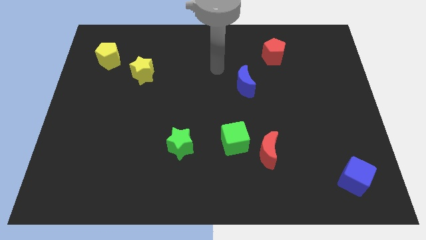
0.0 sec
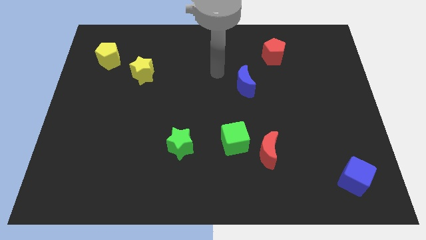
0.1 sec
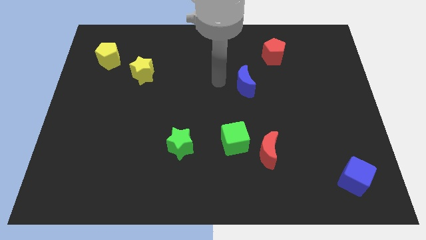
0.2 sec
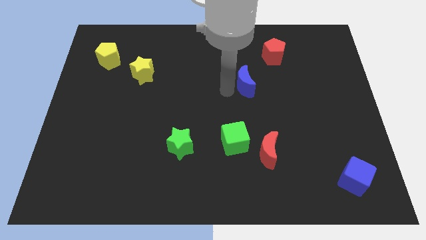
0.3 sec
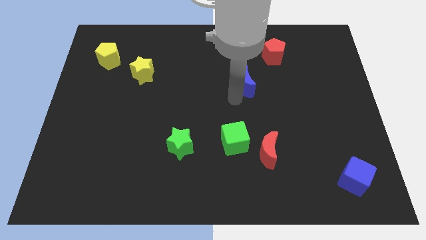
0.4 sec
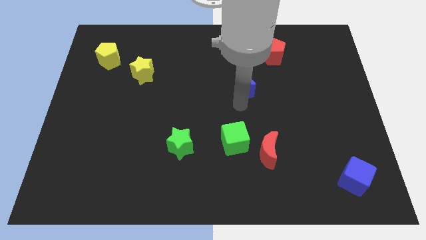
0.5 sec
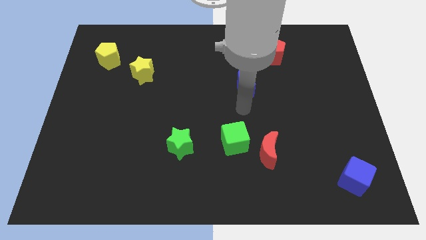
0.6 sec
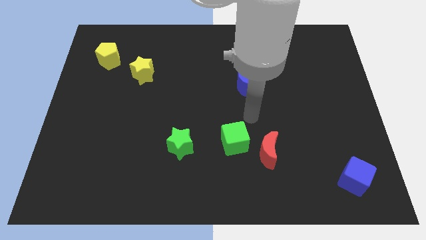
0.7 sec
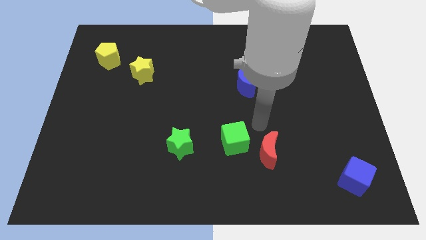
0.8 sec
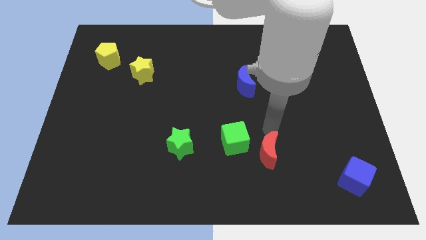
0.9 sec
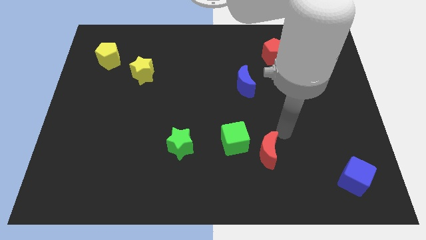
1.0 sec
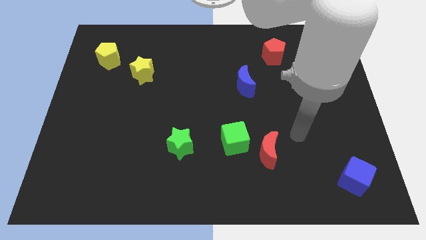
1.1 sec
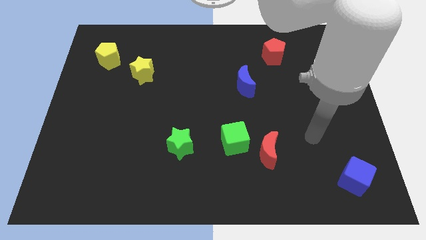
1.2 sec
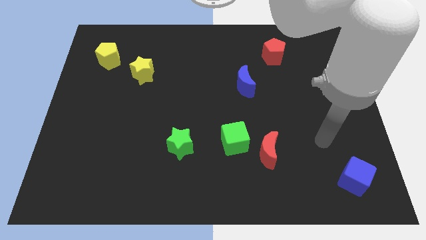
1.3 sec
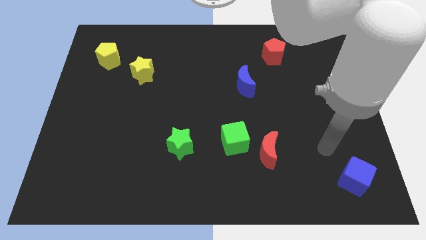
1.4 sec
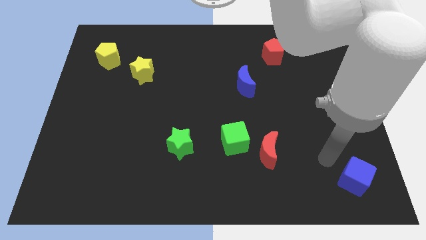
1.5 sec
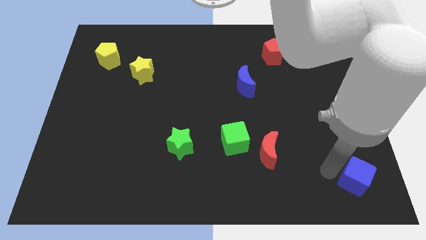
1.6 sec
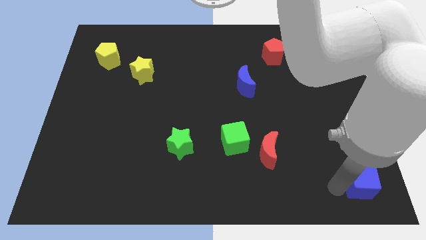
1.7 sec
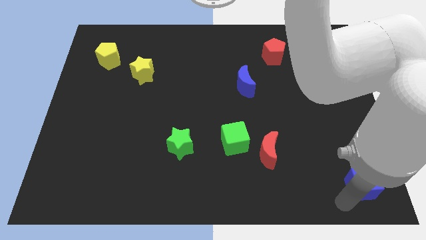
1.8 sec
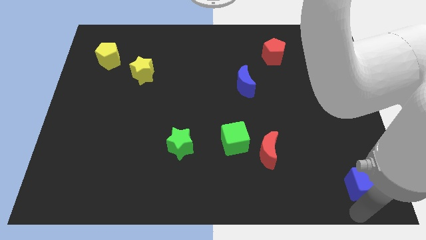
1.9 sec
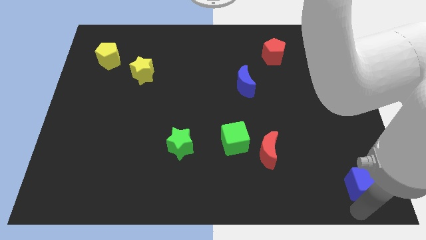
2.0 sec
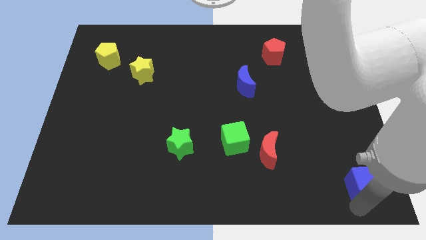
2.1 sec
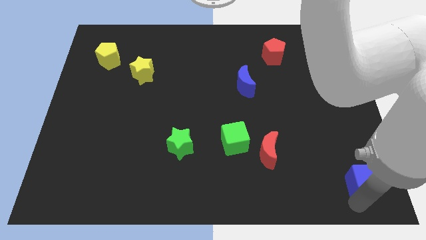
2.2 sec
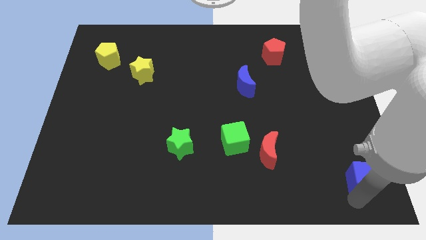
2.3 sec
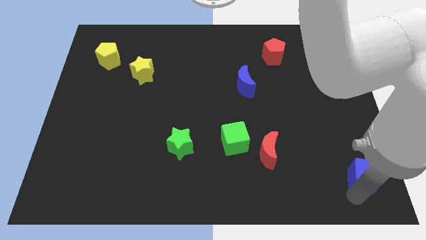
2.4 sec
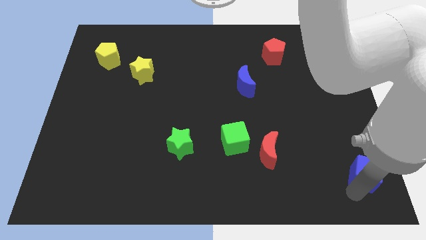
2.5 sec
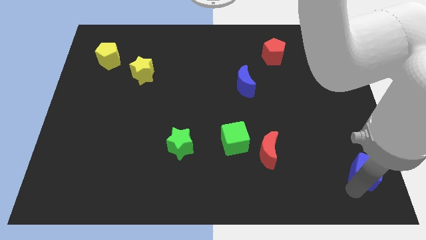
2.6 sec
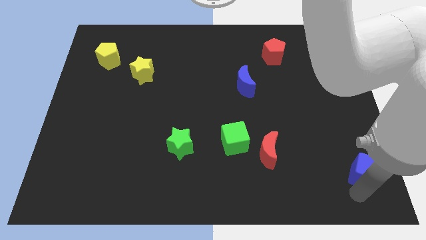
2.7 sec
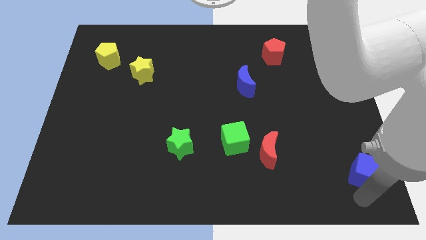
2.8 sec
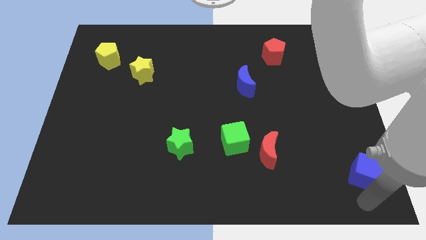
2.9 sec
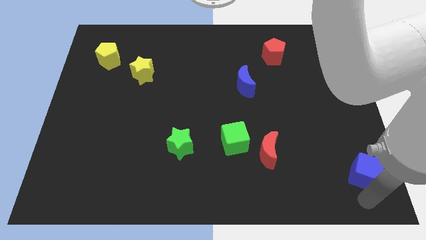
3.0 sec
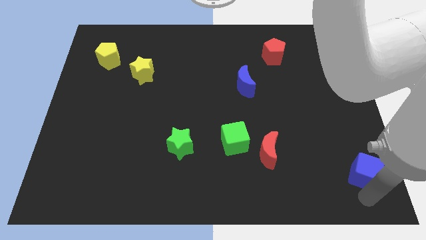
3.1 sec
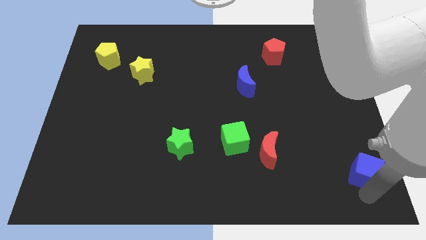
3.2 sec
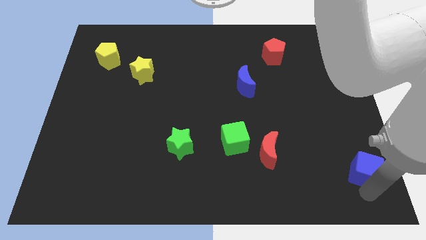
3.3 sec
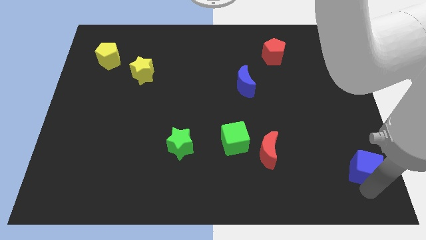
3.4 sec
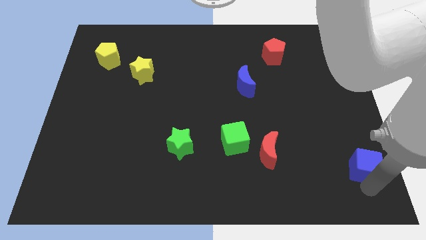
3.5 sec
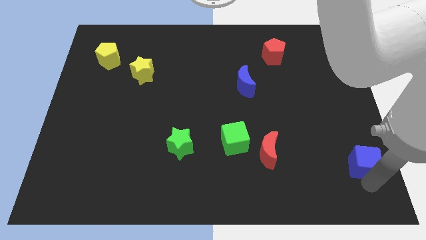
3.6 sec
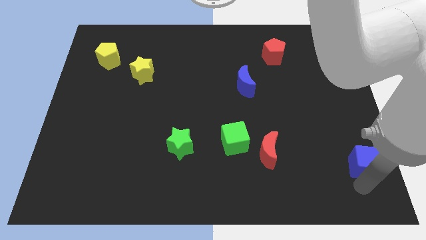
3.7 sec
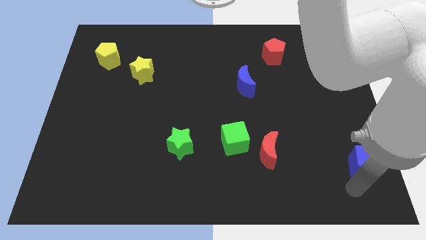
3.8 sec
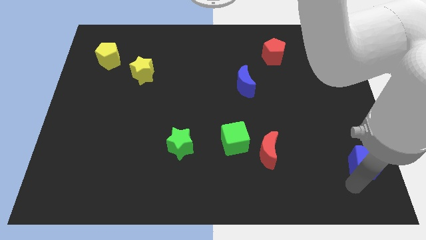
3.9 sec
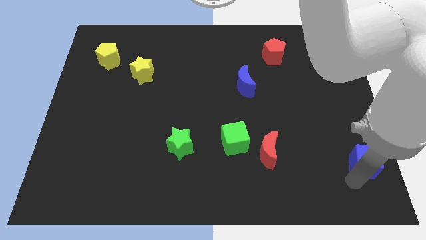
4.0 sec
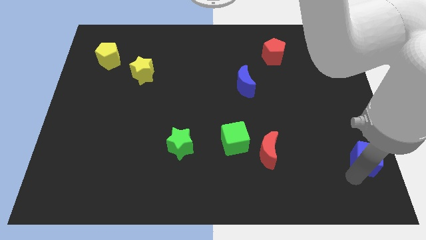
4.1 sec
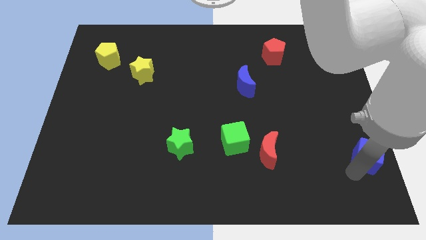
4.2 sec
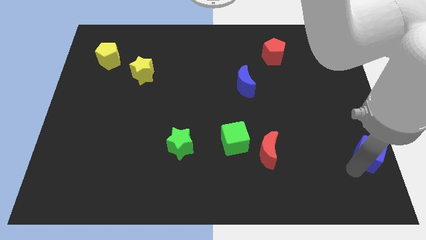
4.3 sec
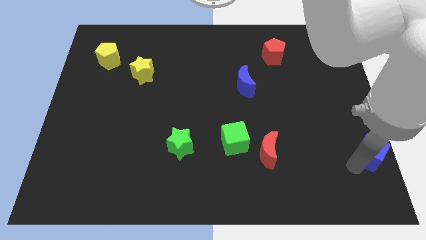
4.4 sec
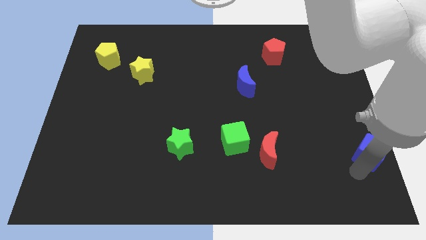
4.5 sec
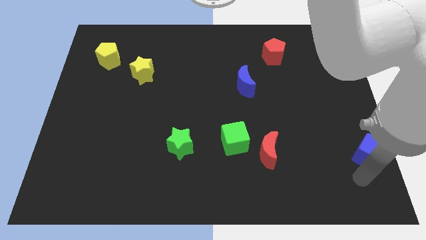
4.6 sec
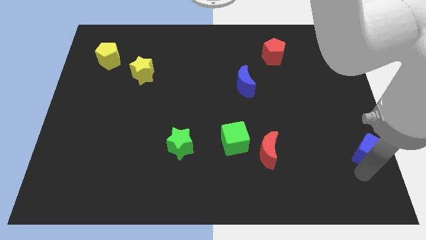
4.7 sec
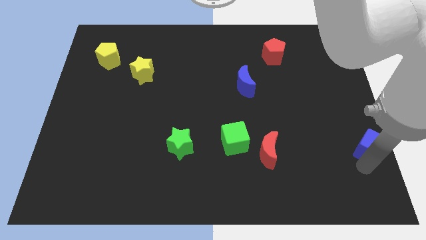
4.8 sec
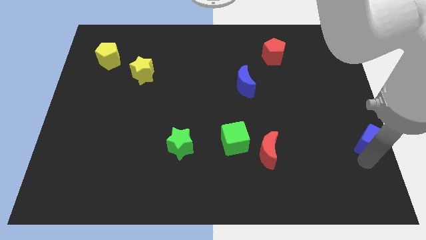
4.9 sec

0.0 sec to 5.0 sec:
put the blue cube to the right side of the board

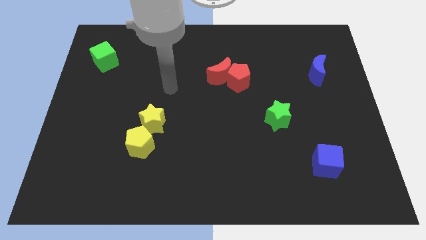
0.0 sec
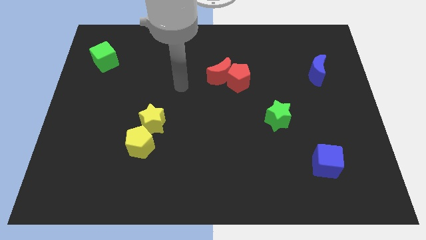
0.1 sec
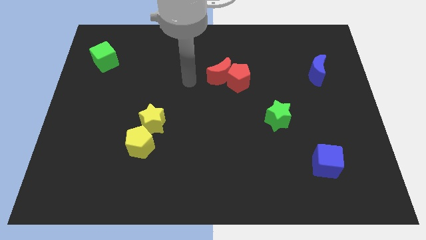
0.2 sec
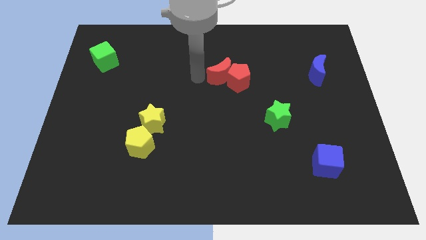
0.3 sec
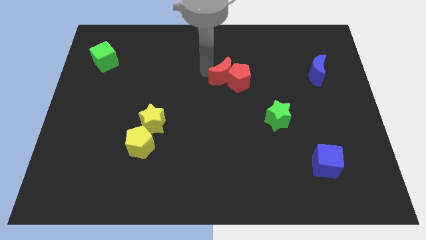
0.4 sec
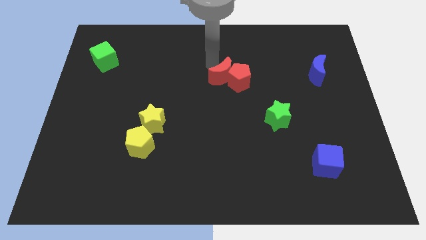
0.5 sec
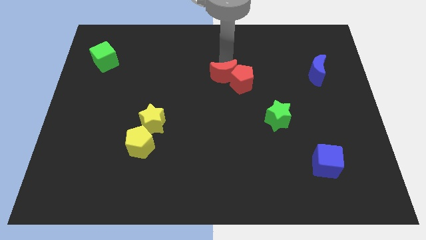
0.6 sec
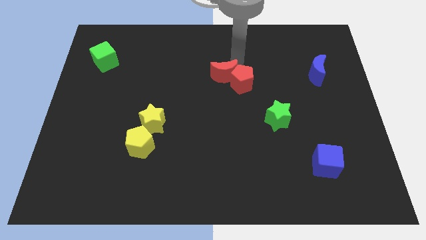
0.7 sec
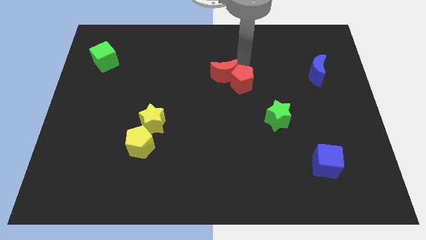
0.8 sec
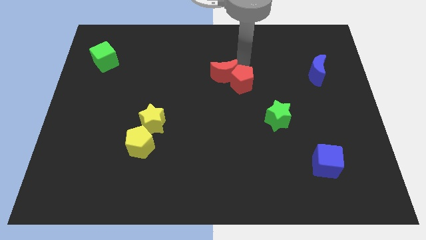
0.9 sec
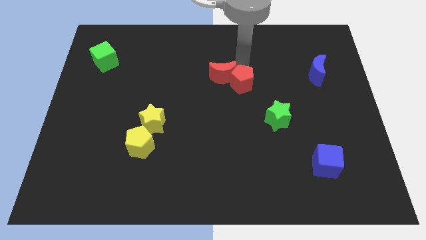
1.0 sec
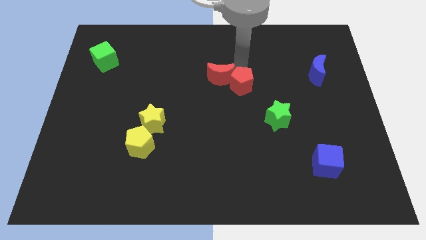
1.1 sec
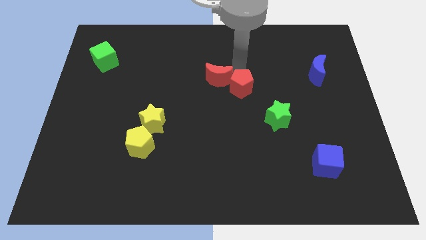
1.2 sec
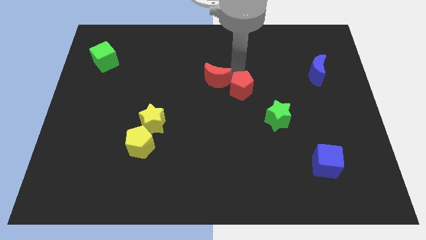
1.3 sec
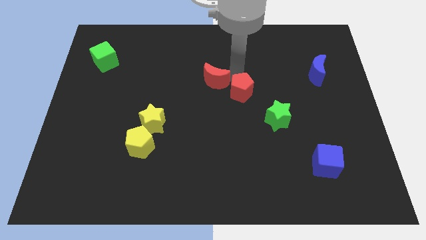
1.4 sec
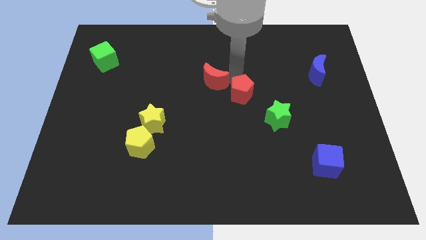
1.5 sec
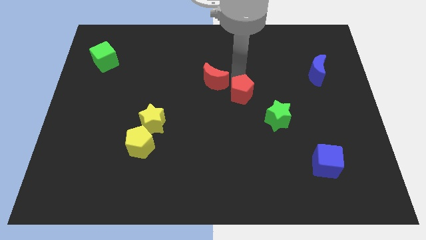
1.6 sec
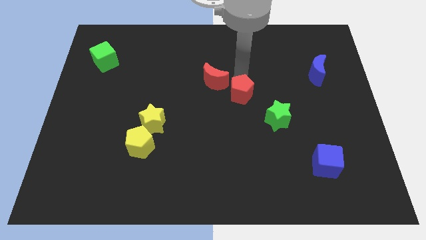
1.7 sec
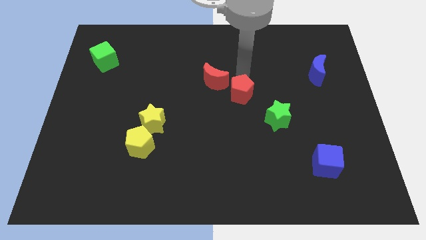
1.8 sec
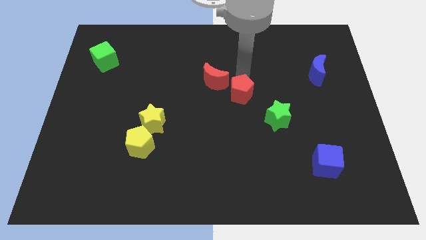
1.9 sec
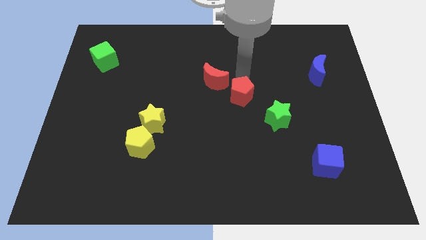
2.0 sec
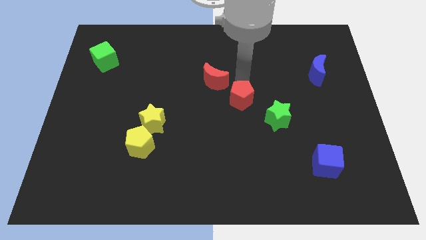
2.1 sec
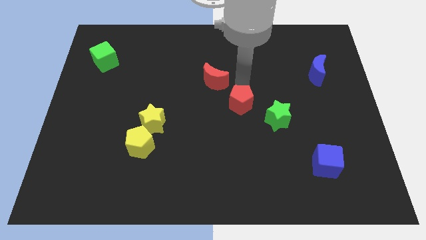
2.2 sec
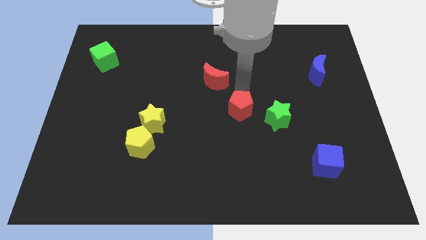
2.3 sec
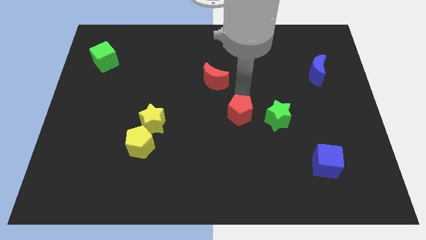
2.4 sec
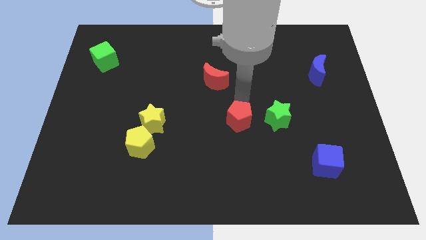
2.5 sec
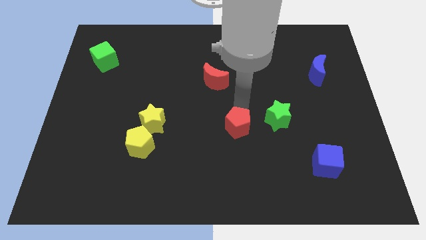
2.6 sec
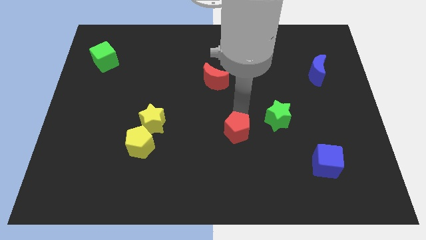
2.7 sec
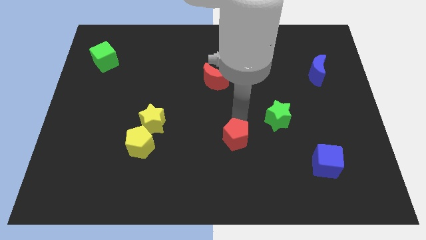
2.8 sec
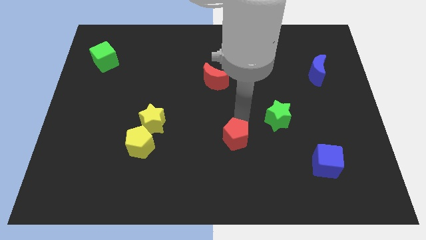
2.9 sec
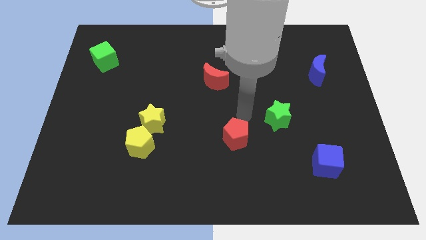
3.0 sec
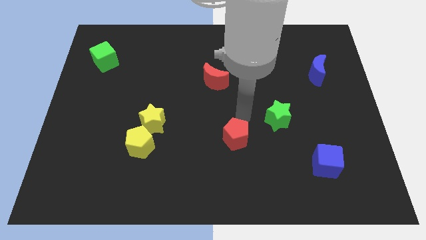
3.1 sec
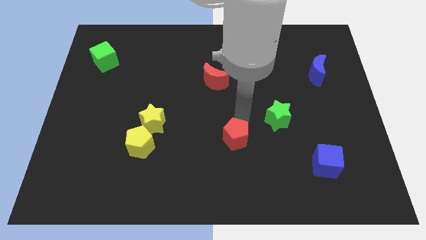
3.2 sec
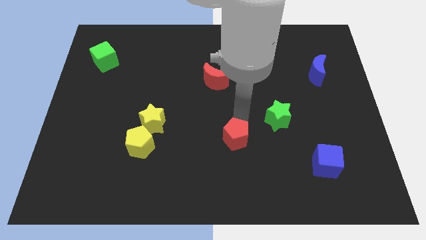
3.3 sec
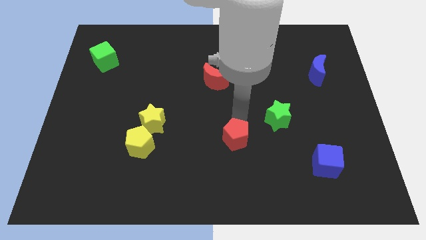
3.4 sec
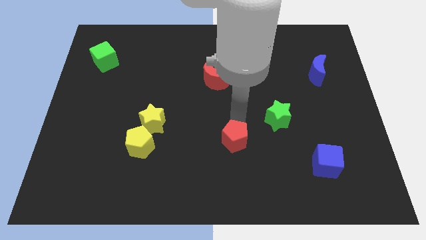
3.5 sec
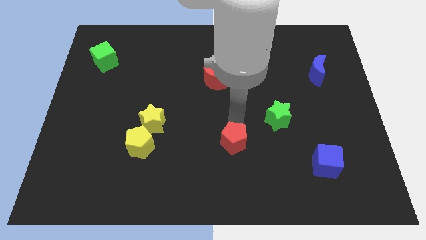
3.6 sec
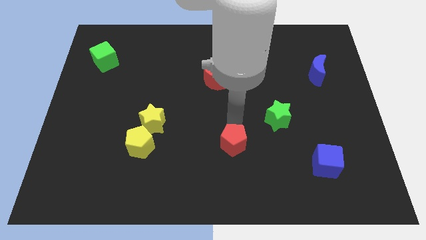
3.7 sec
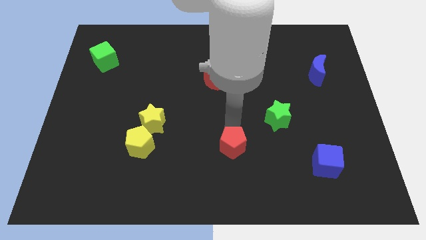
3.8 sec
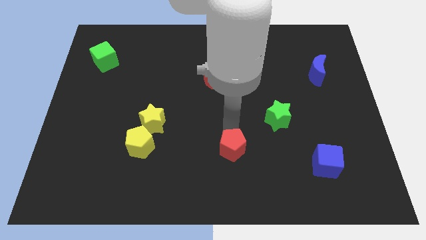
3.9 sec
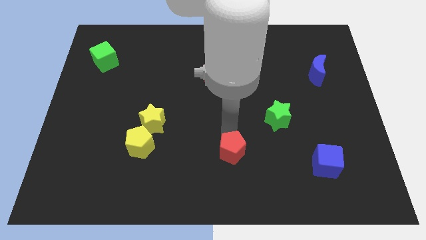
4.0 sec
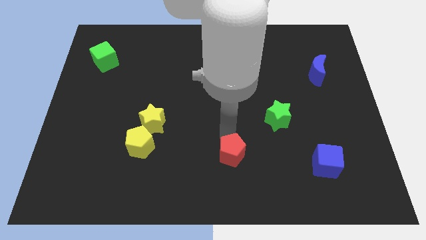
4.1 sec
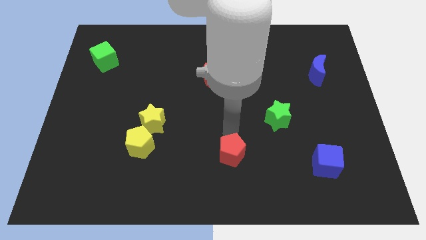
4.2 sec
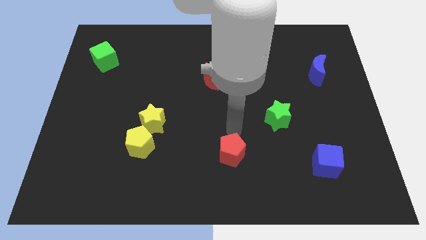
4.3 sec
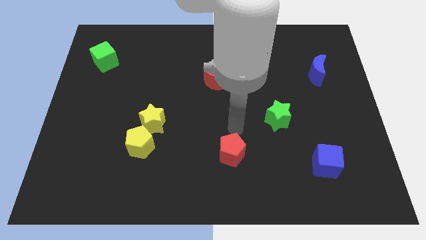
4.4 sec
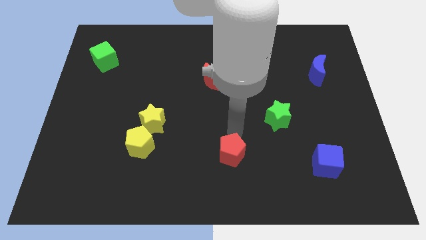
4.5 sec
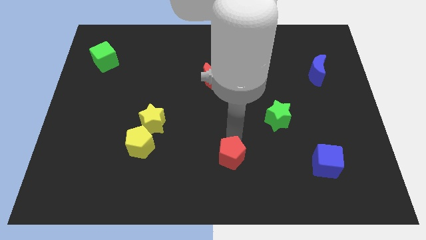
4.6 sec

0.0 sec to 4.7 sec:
put the red pentagon to the bottom
